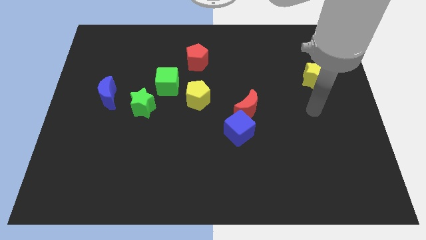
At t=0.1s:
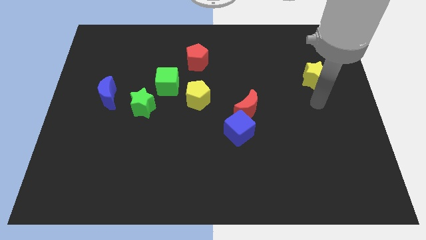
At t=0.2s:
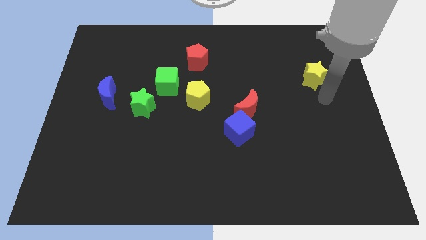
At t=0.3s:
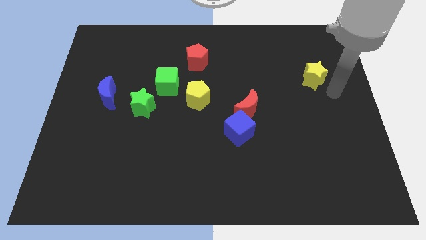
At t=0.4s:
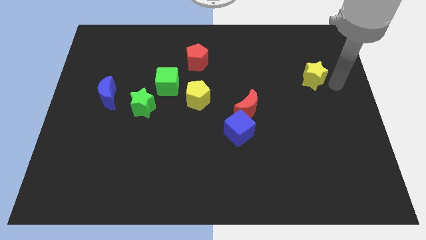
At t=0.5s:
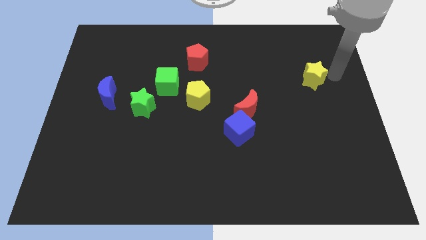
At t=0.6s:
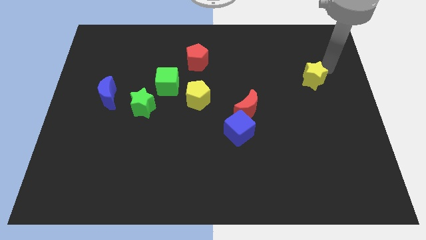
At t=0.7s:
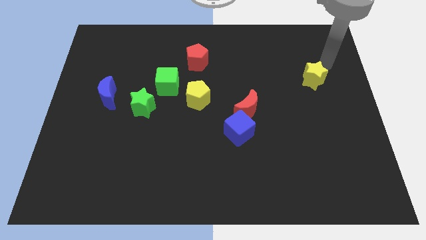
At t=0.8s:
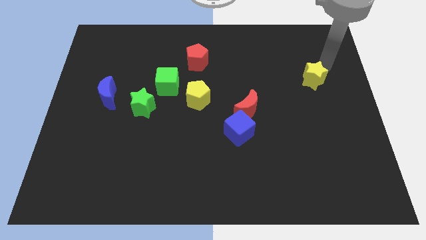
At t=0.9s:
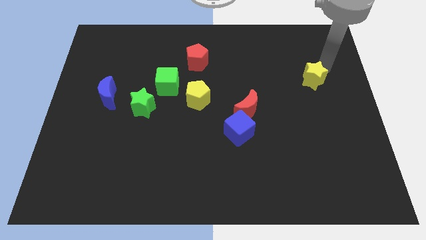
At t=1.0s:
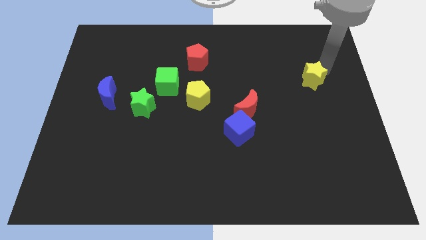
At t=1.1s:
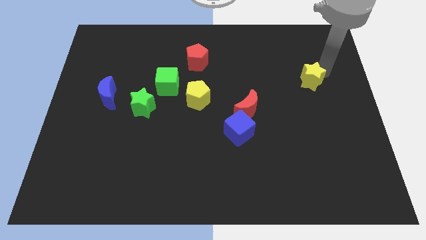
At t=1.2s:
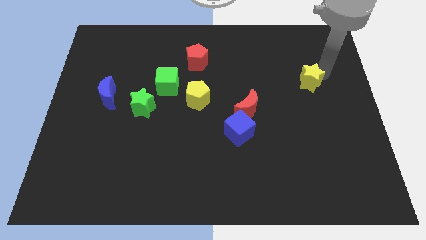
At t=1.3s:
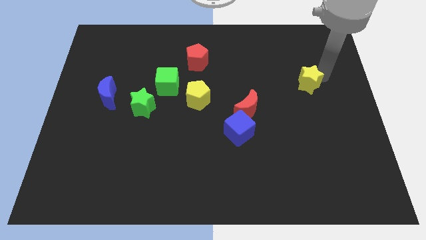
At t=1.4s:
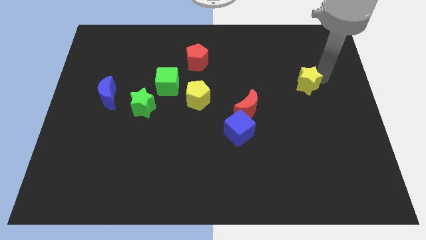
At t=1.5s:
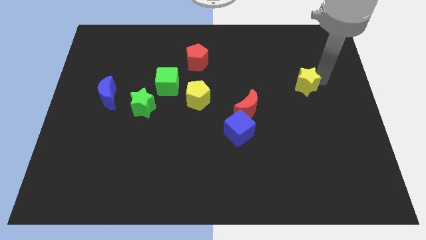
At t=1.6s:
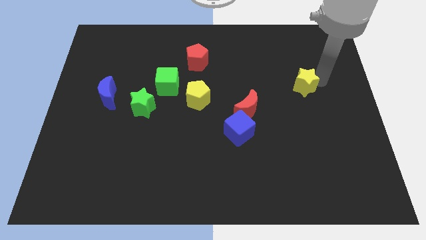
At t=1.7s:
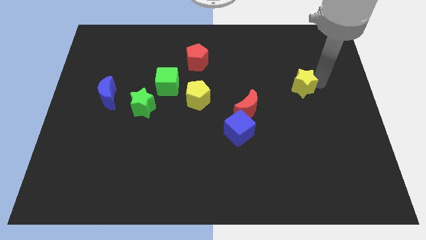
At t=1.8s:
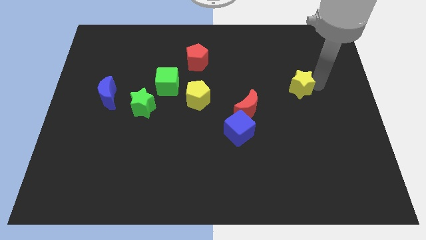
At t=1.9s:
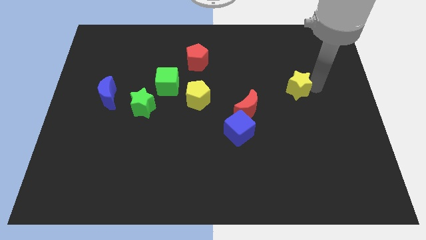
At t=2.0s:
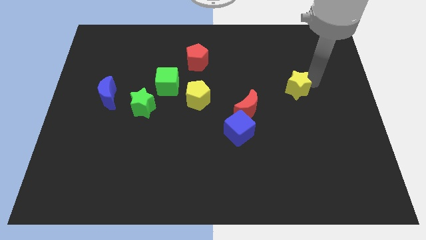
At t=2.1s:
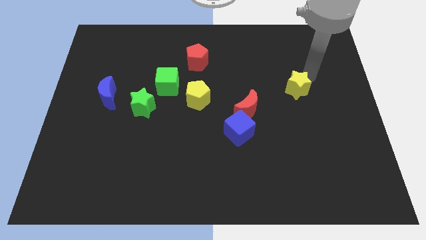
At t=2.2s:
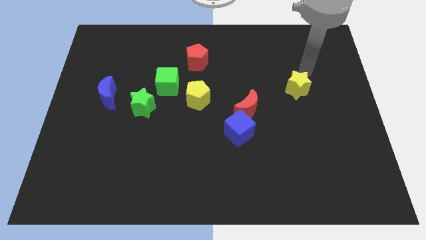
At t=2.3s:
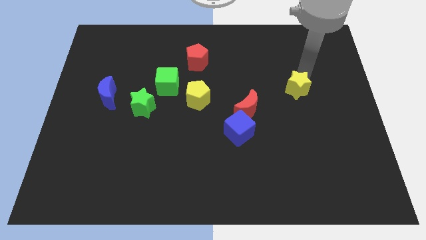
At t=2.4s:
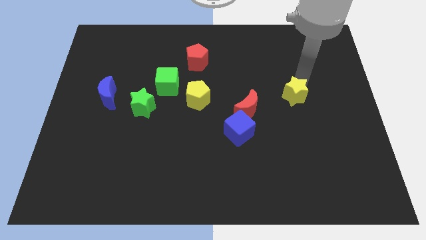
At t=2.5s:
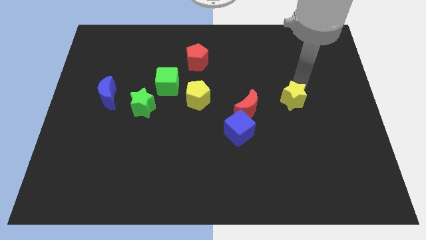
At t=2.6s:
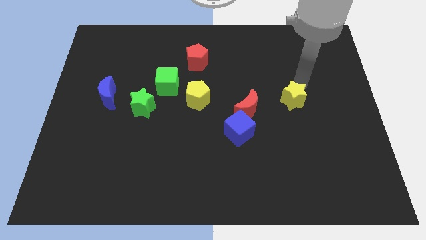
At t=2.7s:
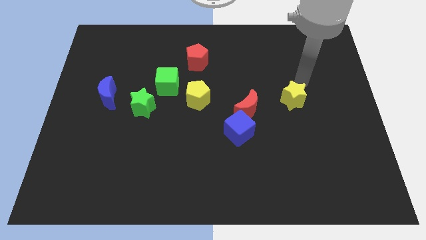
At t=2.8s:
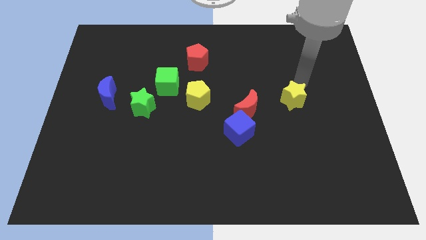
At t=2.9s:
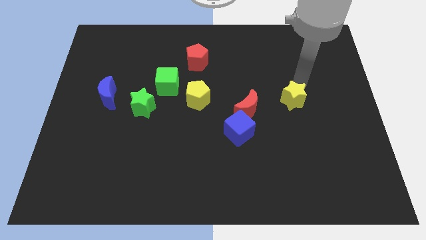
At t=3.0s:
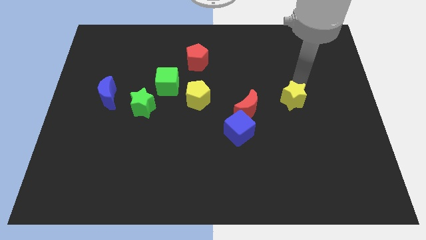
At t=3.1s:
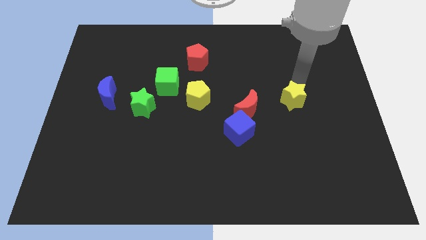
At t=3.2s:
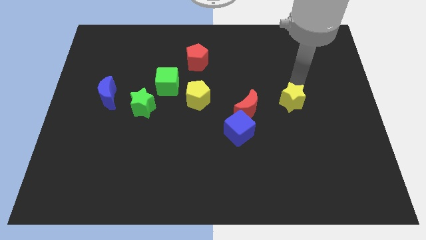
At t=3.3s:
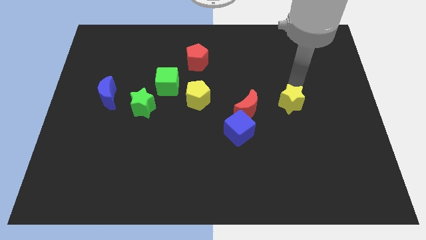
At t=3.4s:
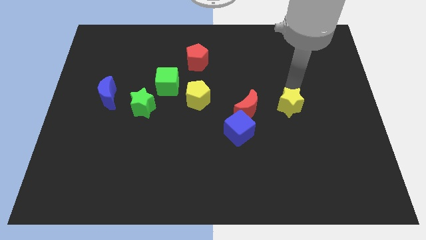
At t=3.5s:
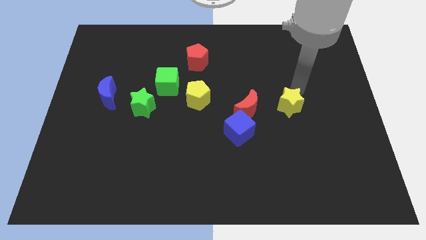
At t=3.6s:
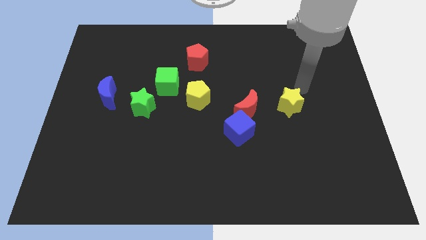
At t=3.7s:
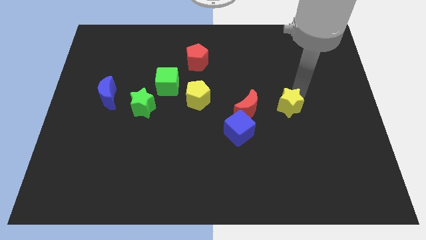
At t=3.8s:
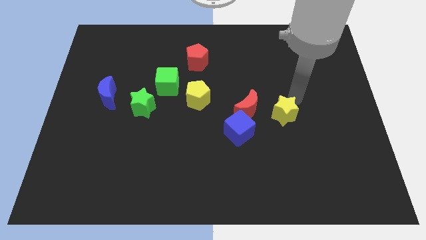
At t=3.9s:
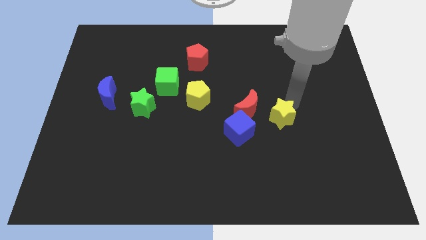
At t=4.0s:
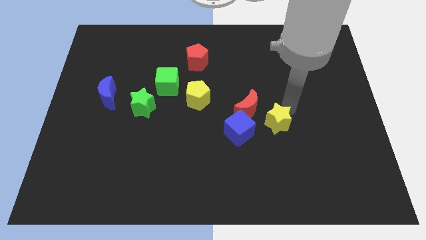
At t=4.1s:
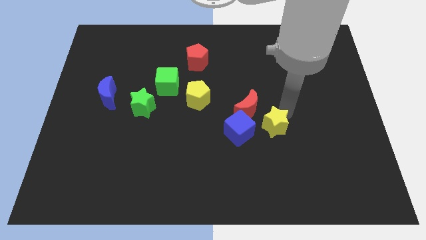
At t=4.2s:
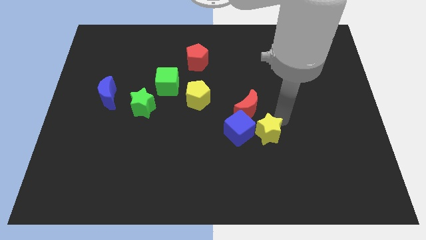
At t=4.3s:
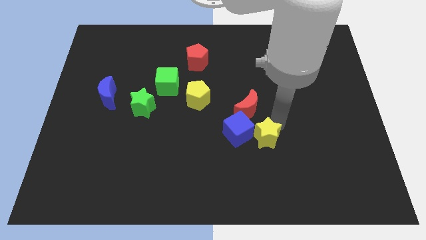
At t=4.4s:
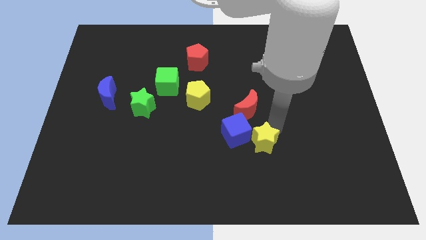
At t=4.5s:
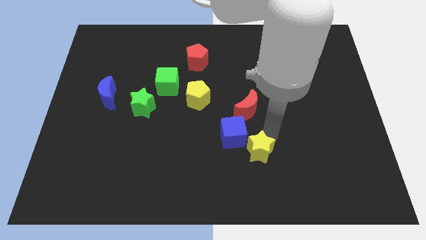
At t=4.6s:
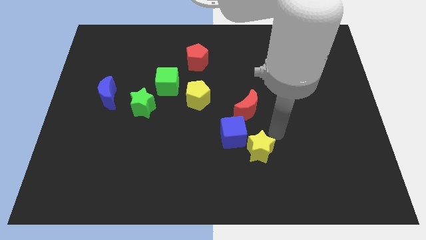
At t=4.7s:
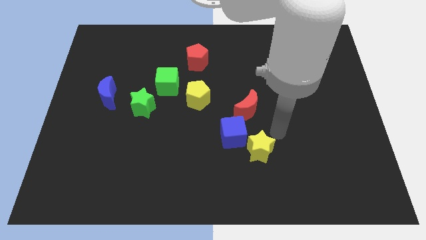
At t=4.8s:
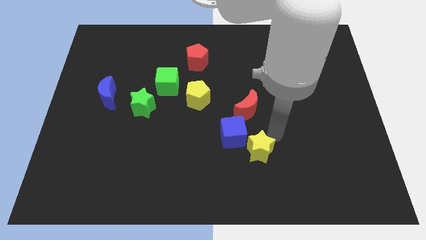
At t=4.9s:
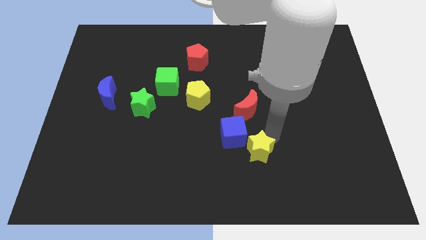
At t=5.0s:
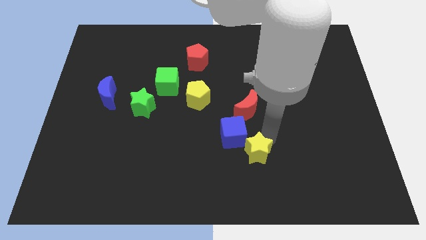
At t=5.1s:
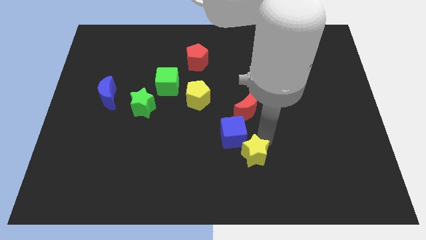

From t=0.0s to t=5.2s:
move the yellow star to the bottom side of the blue cube

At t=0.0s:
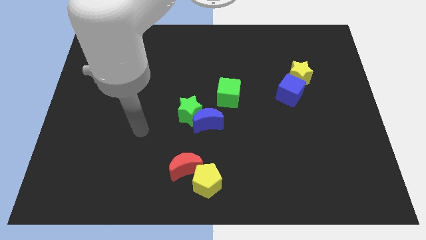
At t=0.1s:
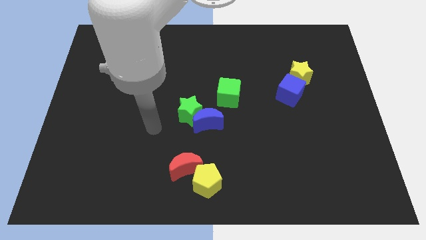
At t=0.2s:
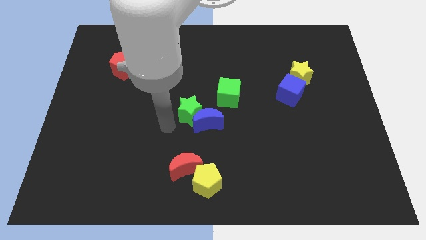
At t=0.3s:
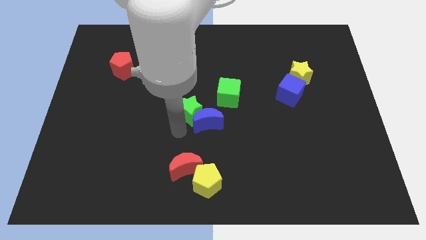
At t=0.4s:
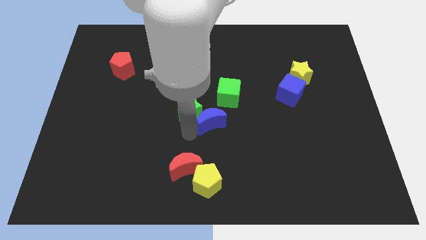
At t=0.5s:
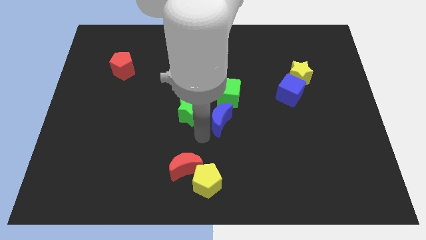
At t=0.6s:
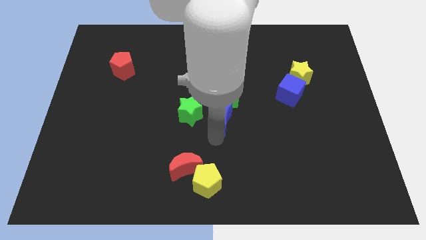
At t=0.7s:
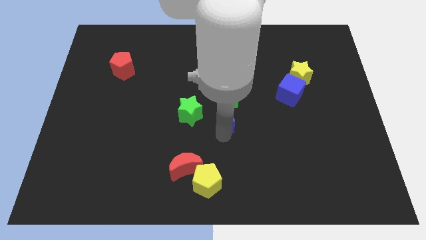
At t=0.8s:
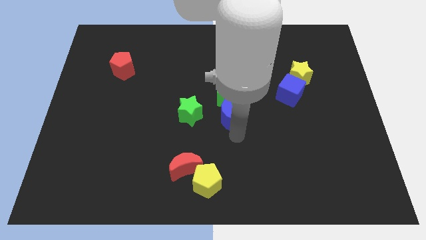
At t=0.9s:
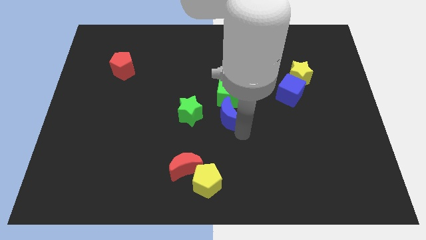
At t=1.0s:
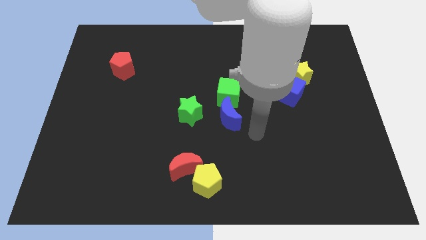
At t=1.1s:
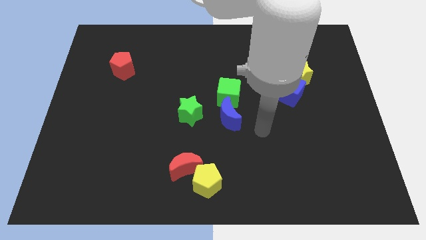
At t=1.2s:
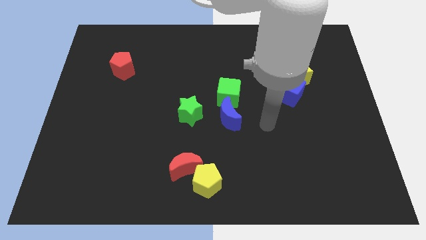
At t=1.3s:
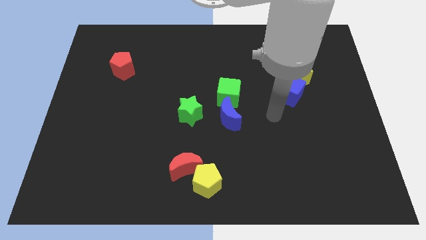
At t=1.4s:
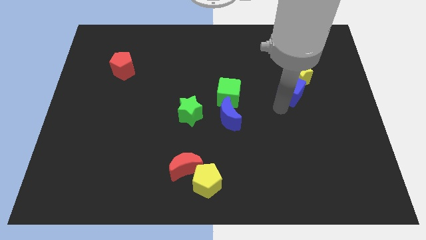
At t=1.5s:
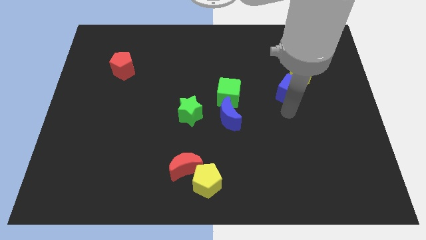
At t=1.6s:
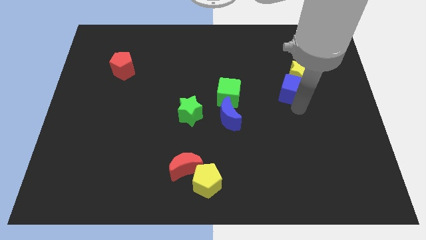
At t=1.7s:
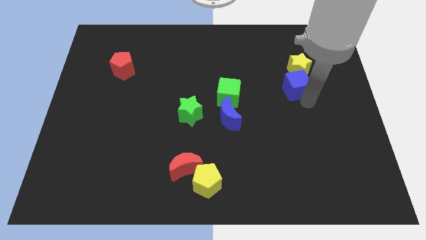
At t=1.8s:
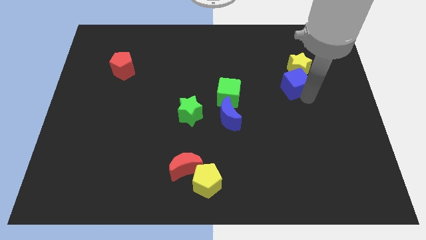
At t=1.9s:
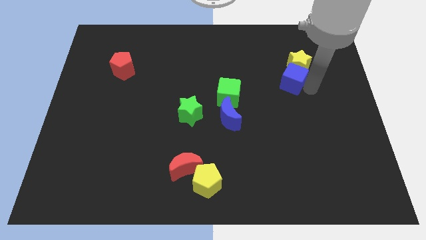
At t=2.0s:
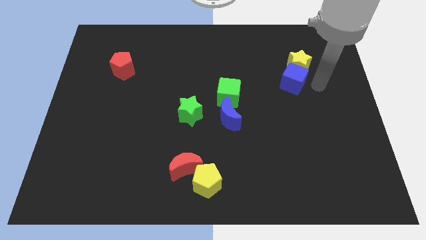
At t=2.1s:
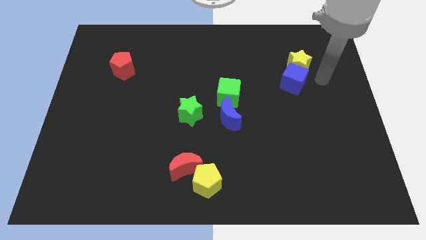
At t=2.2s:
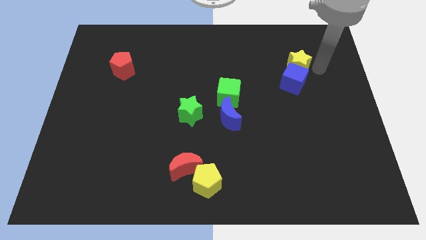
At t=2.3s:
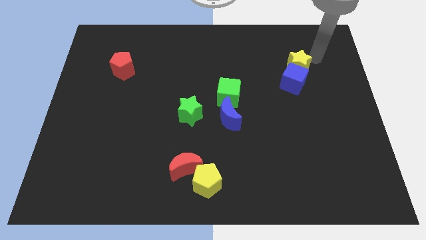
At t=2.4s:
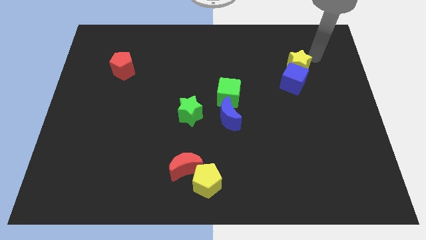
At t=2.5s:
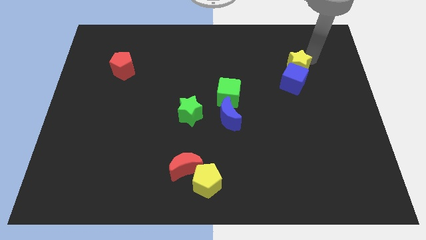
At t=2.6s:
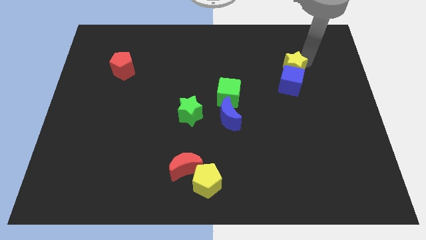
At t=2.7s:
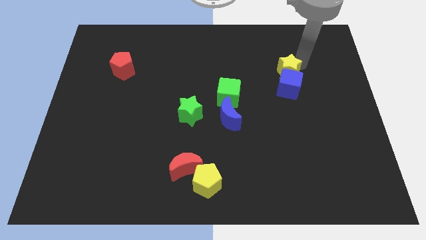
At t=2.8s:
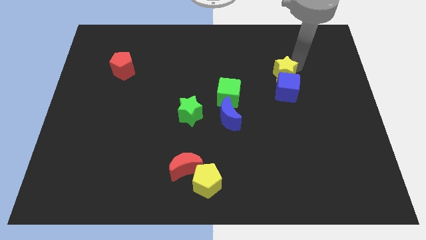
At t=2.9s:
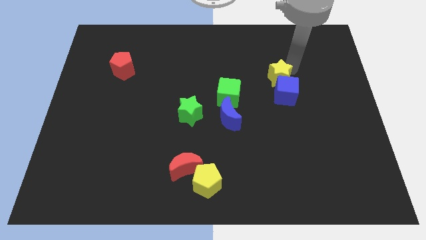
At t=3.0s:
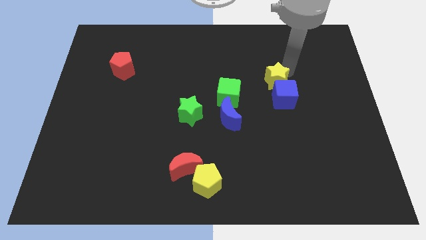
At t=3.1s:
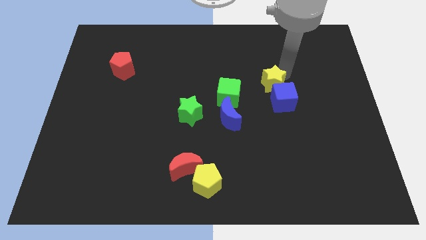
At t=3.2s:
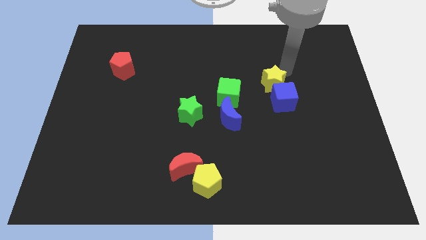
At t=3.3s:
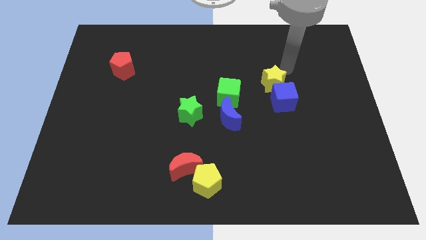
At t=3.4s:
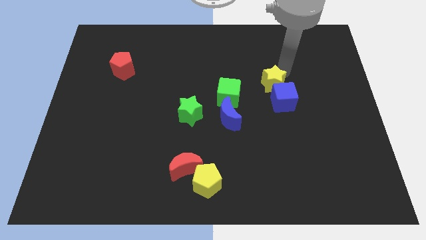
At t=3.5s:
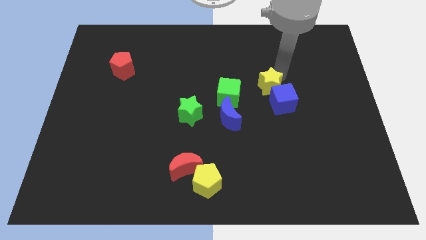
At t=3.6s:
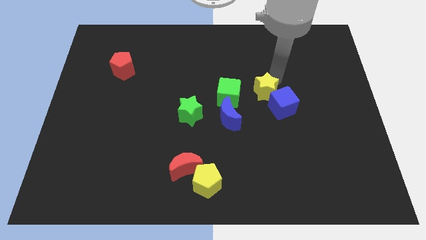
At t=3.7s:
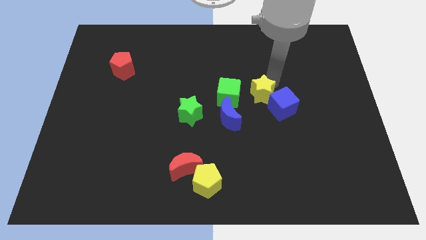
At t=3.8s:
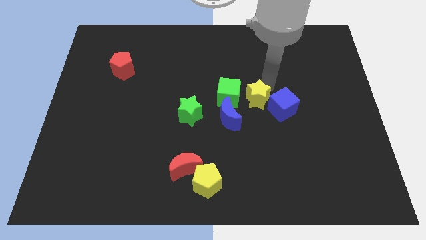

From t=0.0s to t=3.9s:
put the yellow star diagonally down and to the right of the green cube
